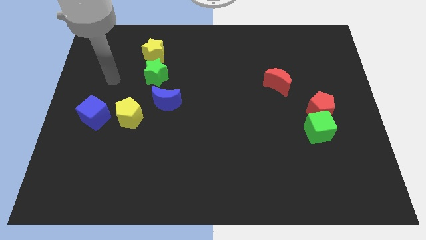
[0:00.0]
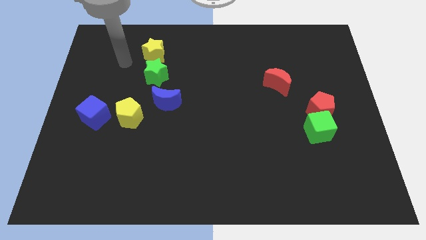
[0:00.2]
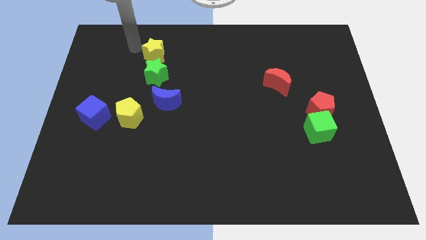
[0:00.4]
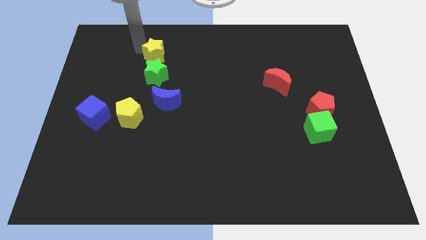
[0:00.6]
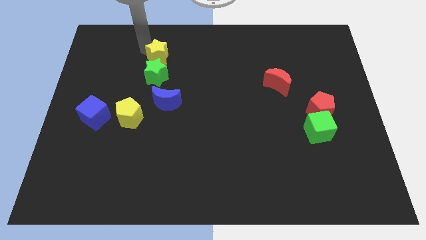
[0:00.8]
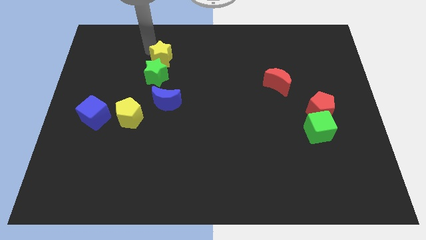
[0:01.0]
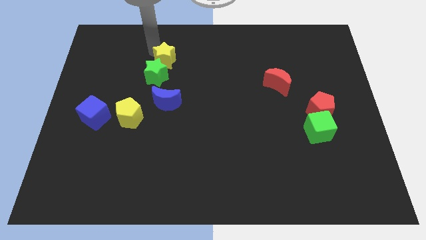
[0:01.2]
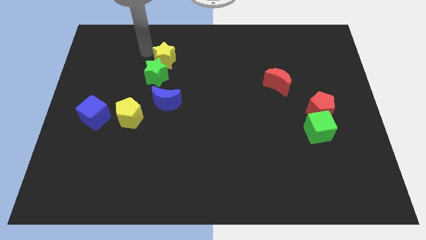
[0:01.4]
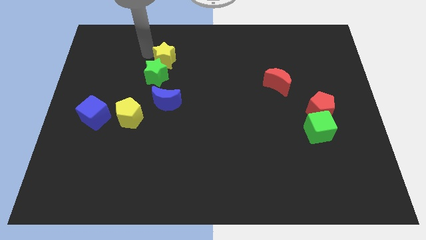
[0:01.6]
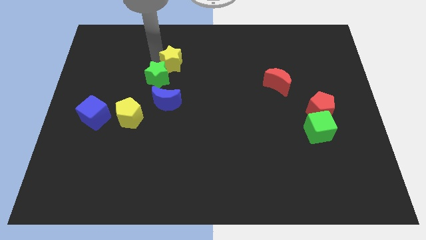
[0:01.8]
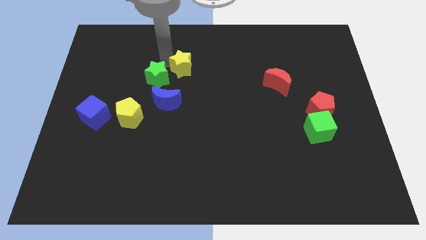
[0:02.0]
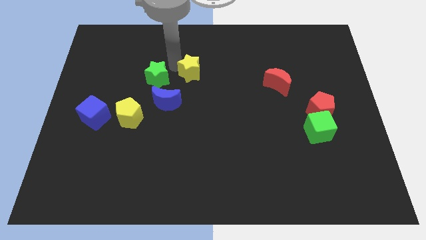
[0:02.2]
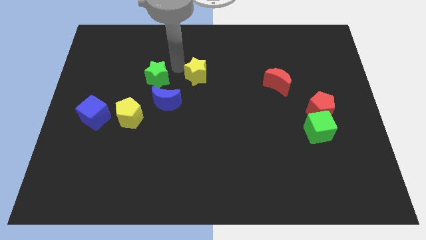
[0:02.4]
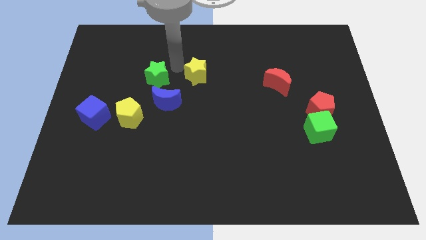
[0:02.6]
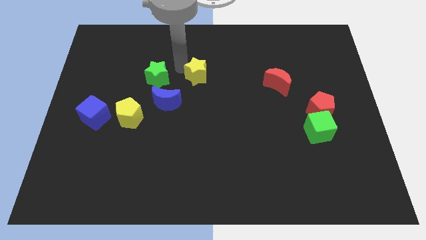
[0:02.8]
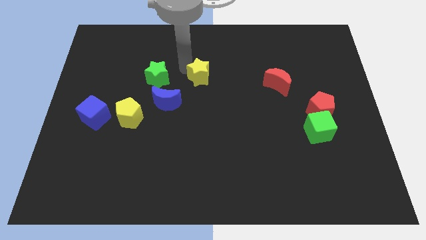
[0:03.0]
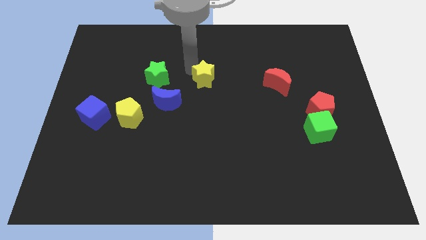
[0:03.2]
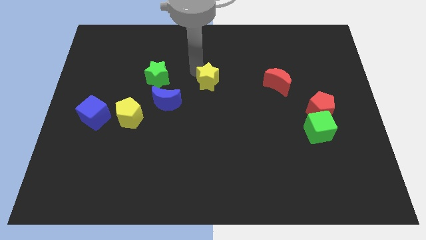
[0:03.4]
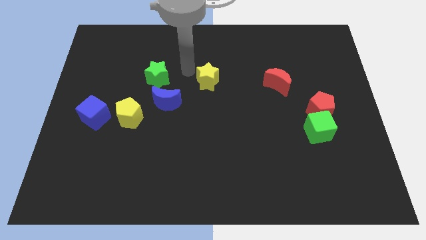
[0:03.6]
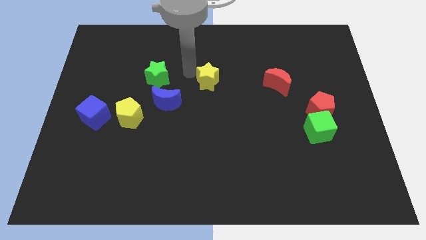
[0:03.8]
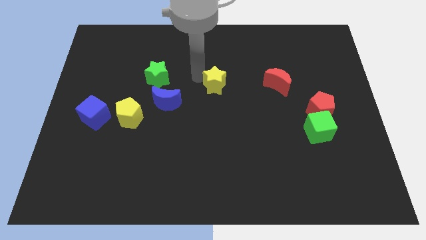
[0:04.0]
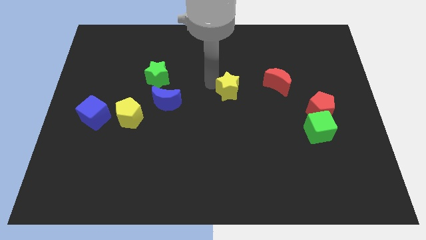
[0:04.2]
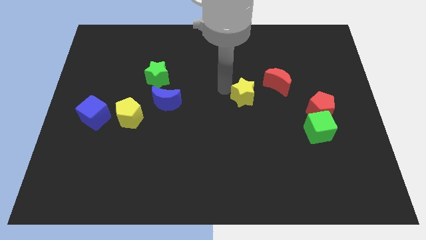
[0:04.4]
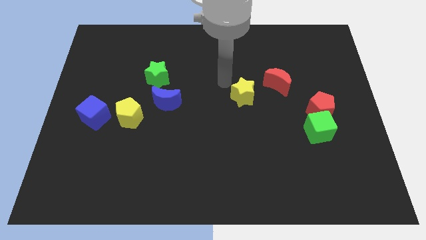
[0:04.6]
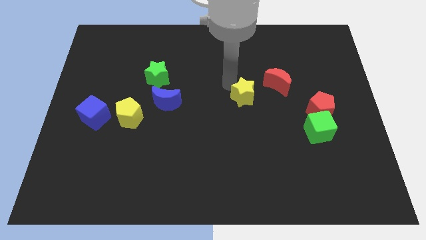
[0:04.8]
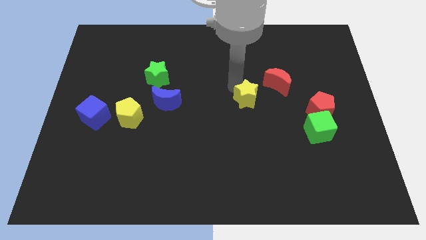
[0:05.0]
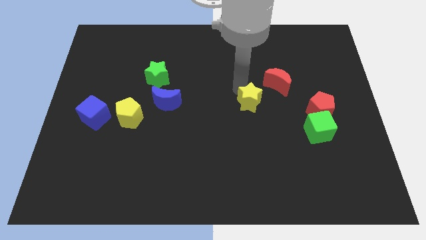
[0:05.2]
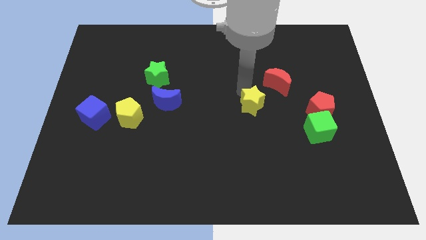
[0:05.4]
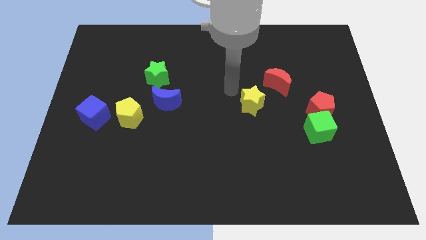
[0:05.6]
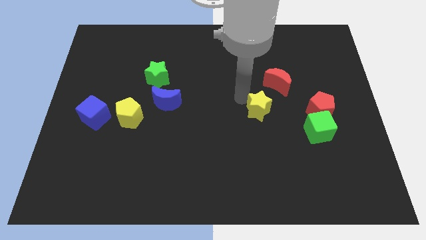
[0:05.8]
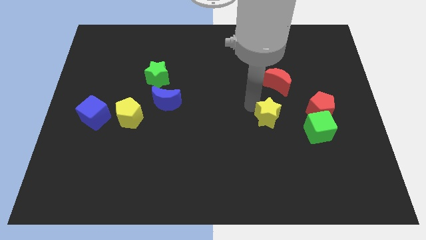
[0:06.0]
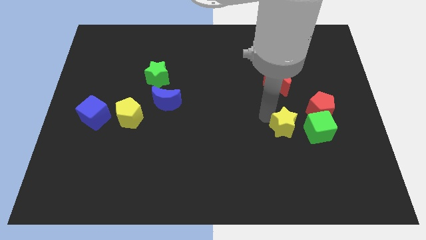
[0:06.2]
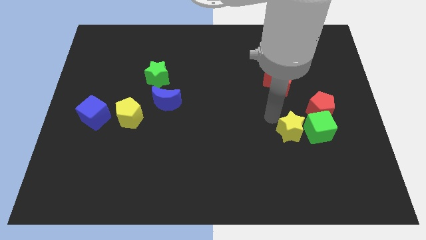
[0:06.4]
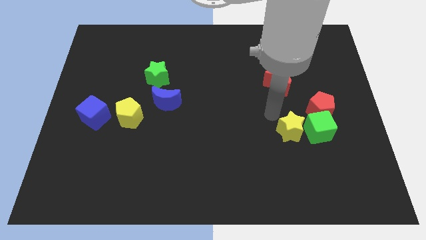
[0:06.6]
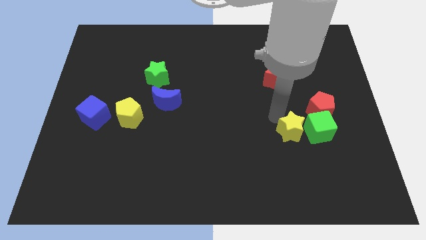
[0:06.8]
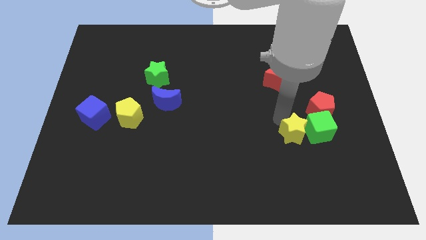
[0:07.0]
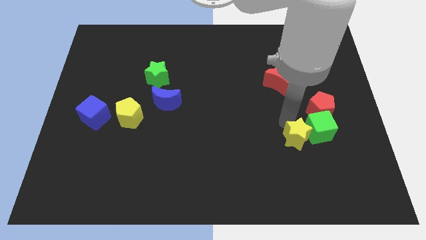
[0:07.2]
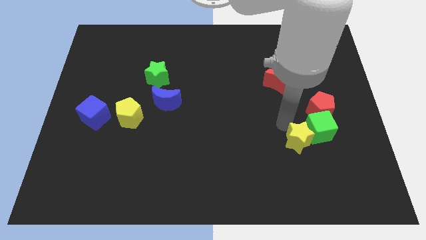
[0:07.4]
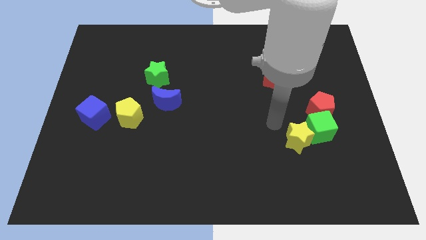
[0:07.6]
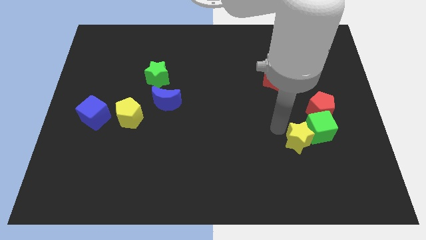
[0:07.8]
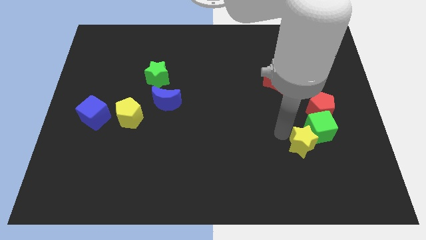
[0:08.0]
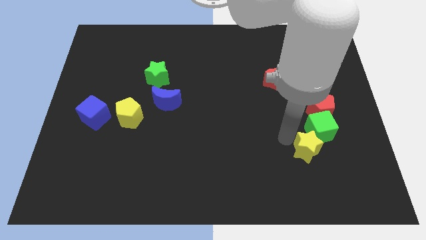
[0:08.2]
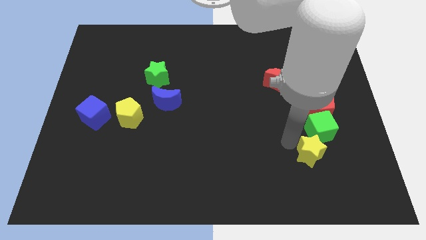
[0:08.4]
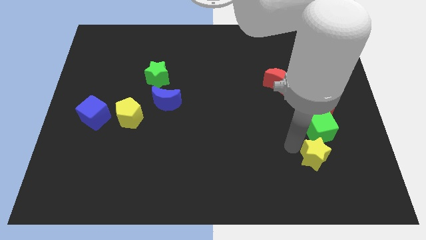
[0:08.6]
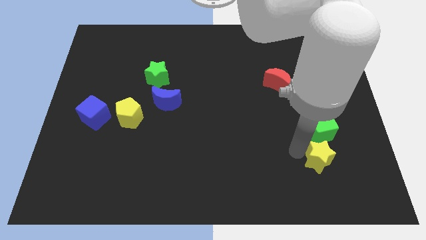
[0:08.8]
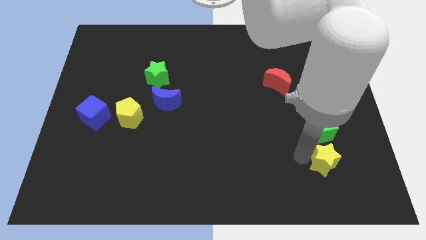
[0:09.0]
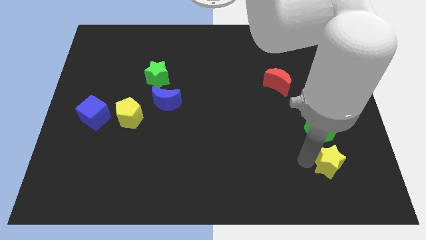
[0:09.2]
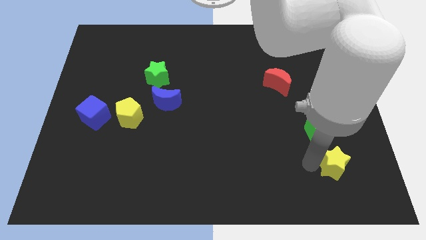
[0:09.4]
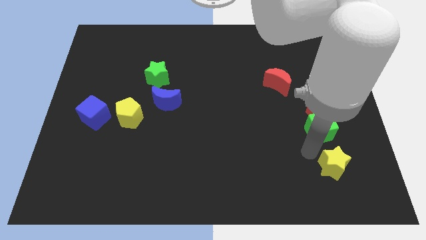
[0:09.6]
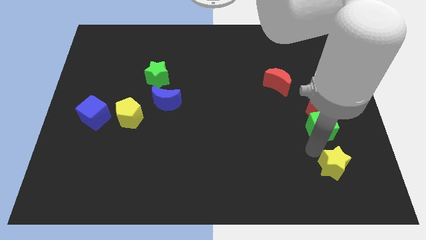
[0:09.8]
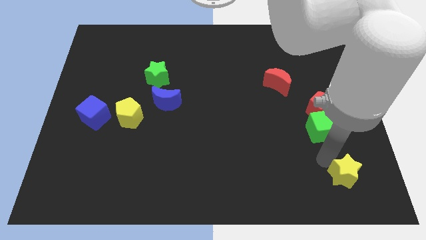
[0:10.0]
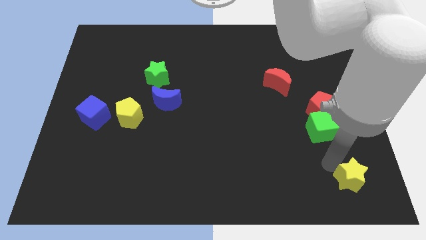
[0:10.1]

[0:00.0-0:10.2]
move the yellow star to the bottom right

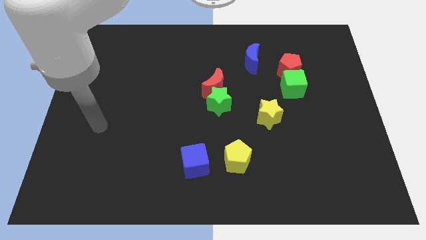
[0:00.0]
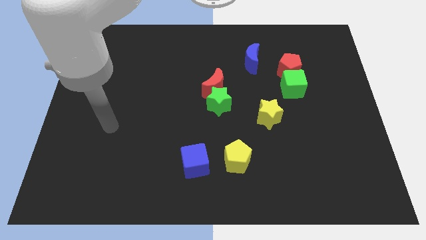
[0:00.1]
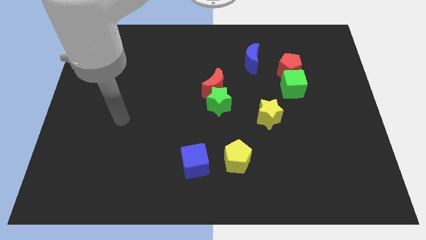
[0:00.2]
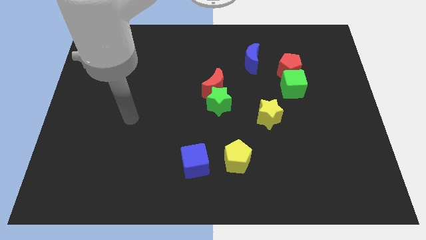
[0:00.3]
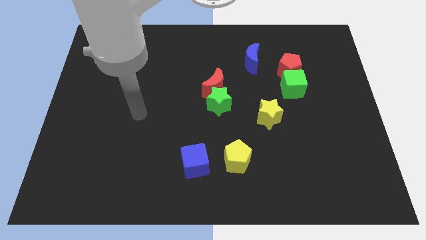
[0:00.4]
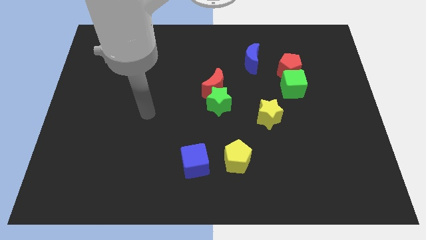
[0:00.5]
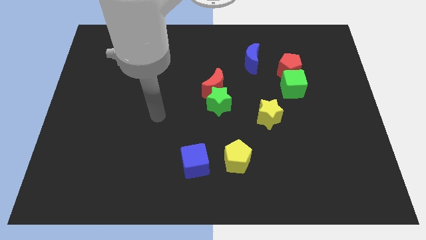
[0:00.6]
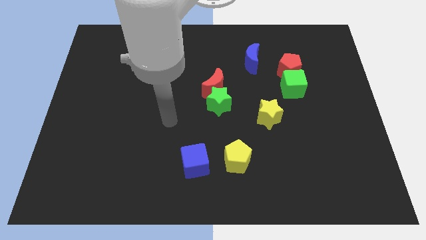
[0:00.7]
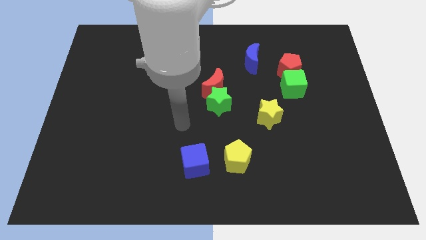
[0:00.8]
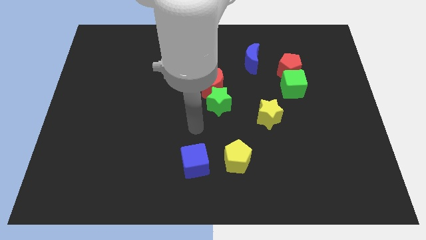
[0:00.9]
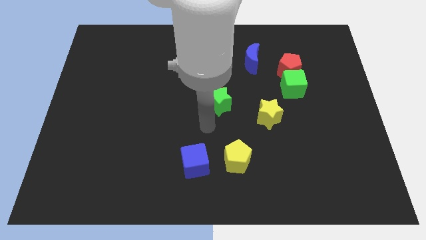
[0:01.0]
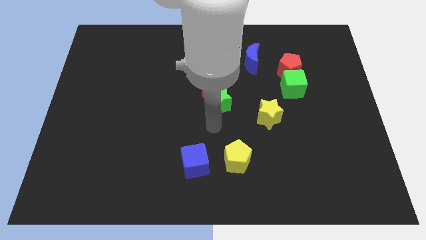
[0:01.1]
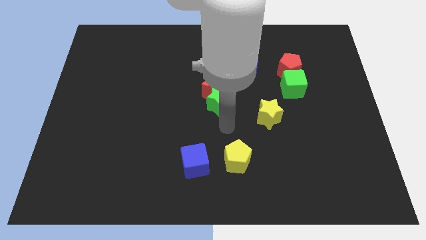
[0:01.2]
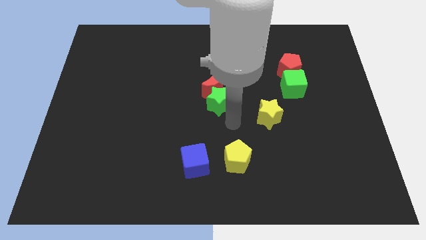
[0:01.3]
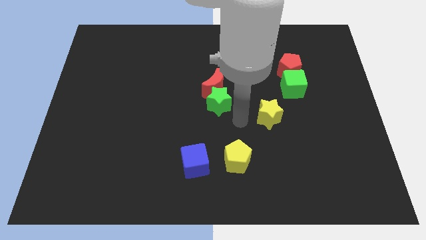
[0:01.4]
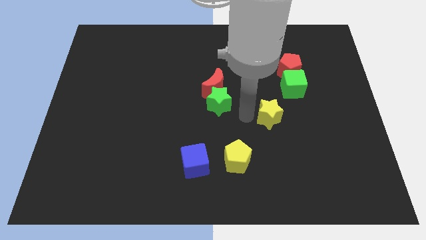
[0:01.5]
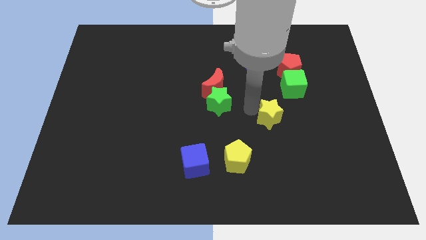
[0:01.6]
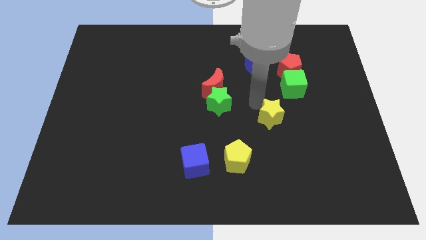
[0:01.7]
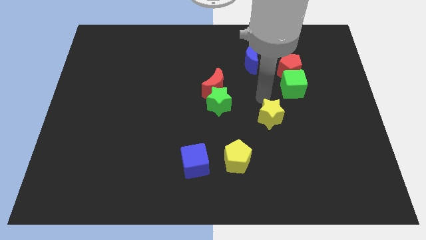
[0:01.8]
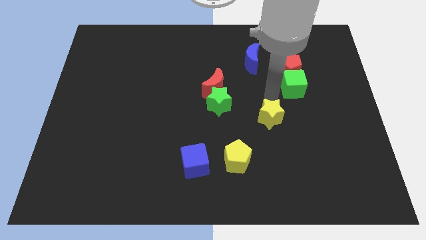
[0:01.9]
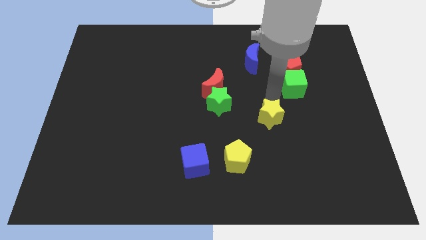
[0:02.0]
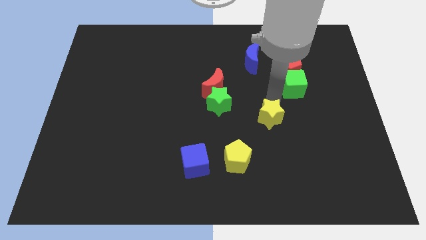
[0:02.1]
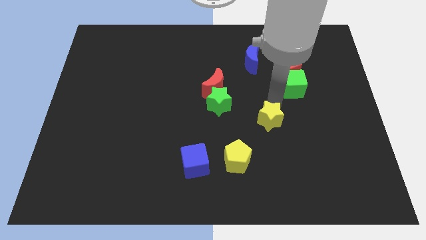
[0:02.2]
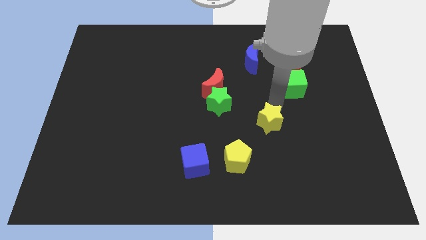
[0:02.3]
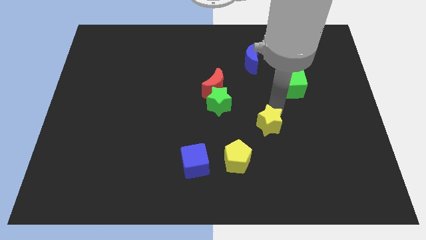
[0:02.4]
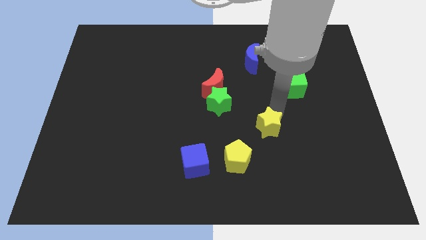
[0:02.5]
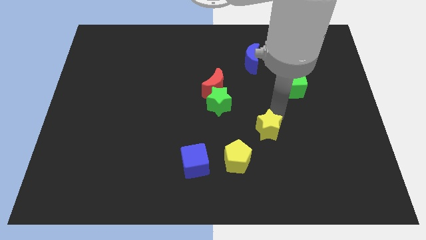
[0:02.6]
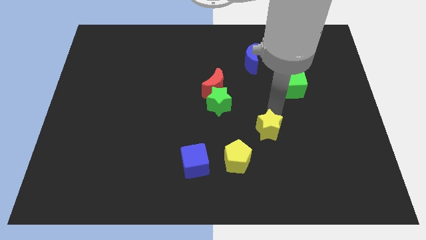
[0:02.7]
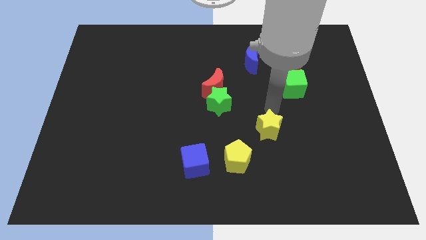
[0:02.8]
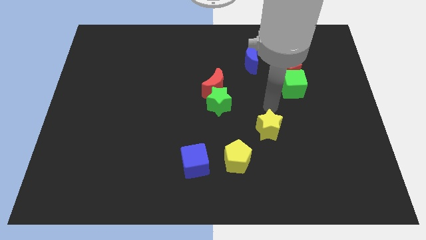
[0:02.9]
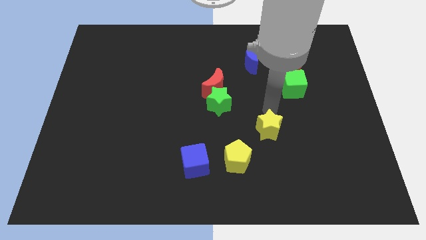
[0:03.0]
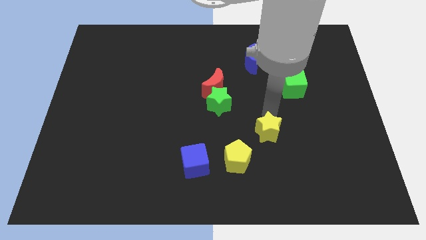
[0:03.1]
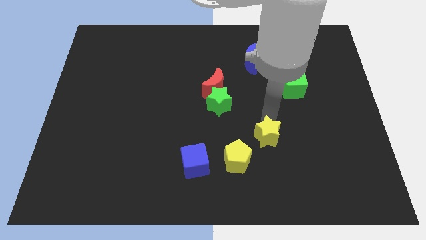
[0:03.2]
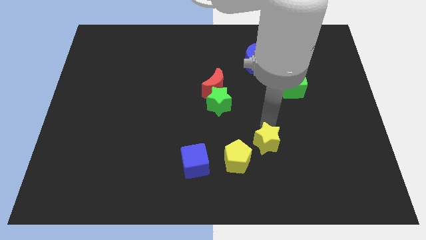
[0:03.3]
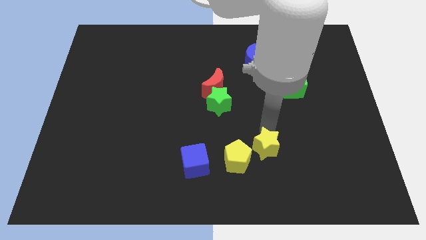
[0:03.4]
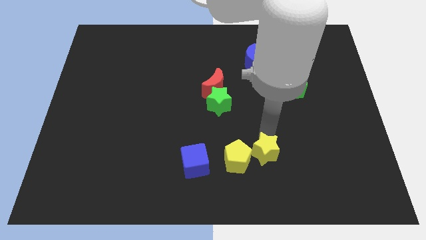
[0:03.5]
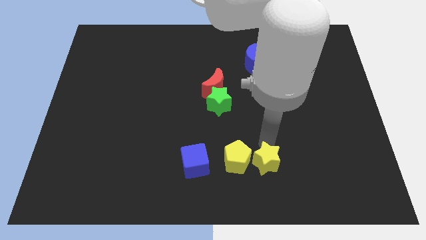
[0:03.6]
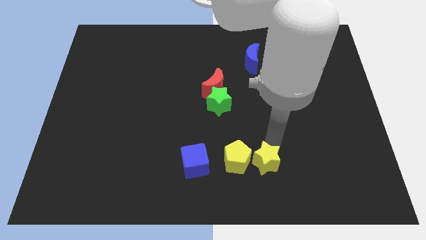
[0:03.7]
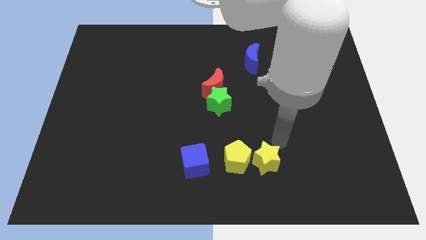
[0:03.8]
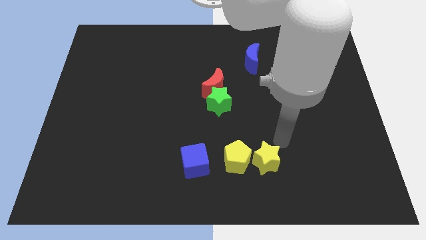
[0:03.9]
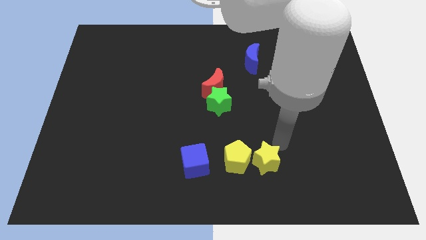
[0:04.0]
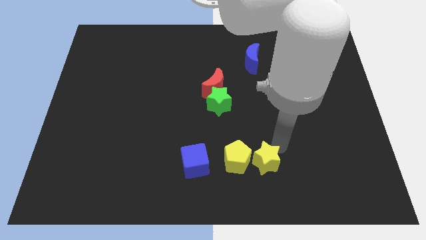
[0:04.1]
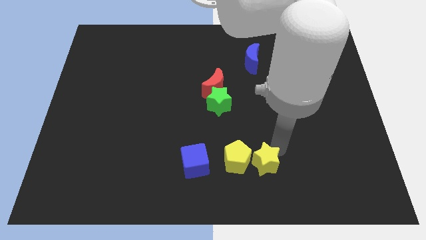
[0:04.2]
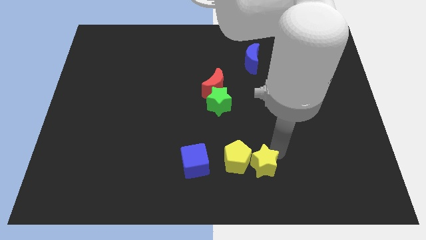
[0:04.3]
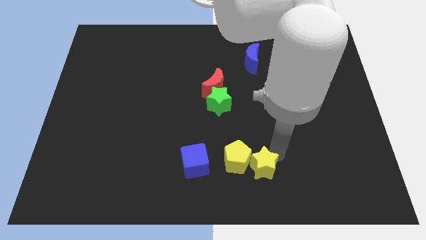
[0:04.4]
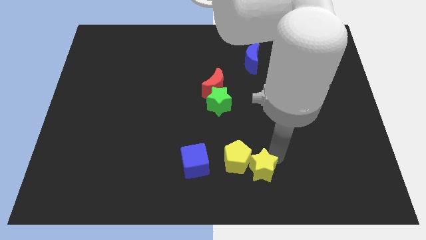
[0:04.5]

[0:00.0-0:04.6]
put the yellow star to the bottom side
